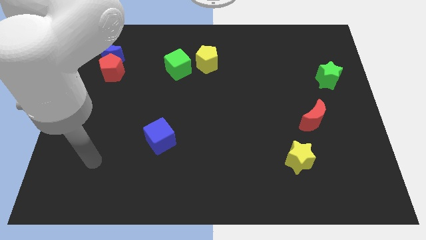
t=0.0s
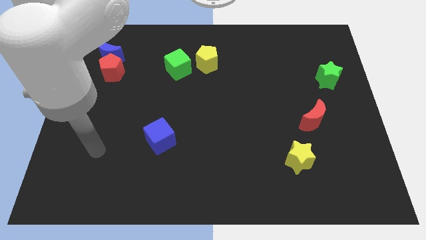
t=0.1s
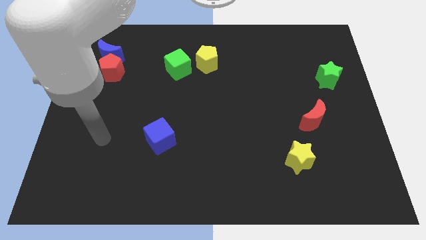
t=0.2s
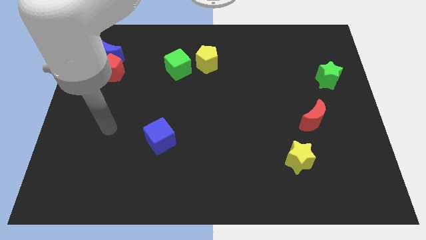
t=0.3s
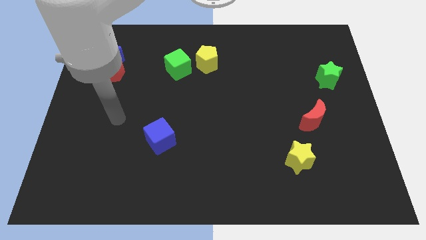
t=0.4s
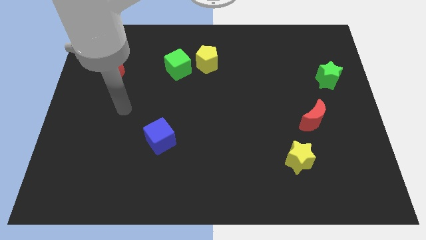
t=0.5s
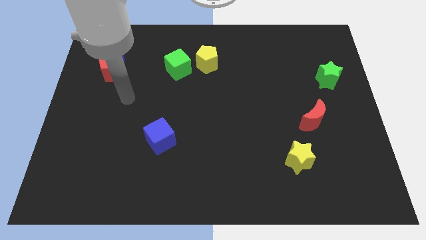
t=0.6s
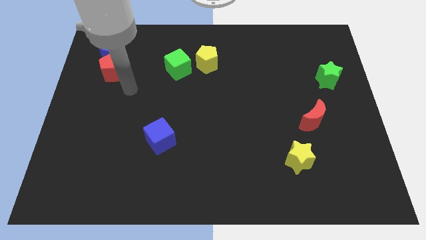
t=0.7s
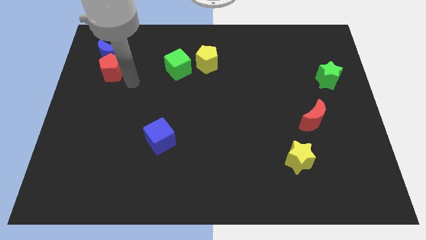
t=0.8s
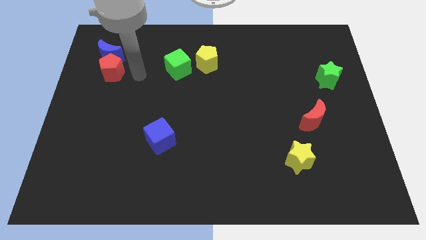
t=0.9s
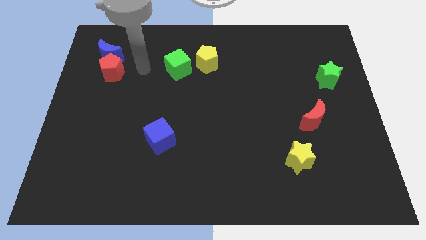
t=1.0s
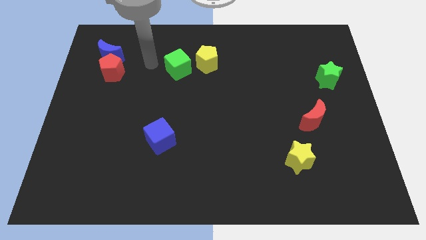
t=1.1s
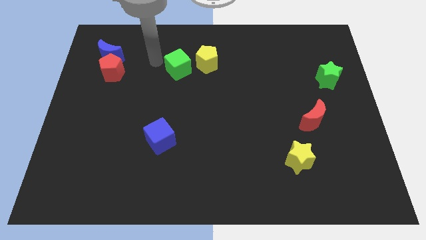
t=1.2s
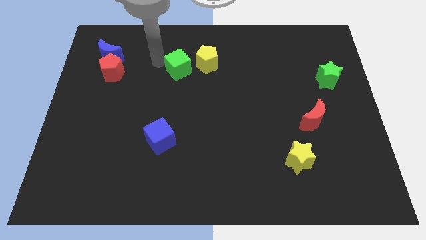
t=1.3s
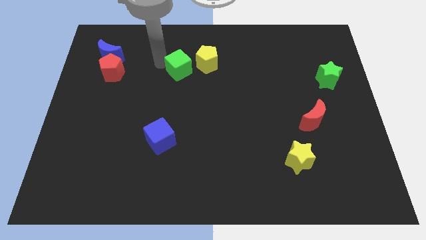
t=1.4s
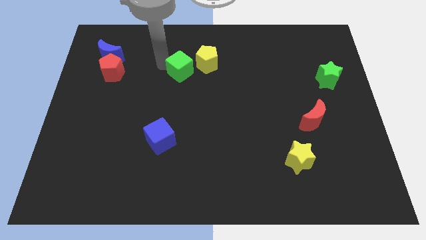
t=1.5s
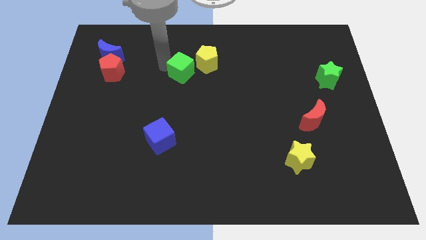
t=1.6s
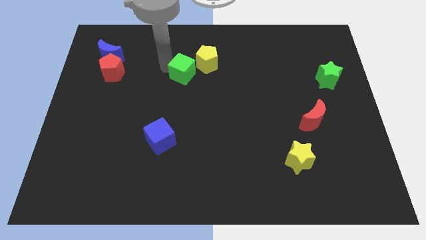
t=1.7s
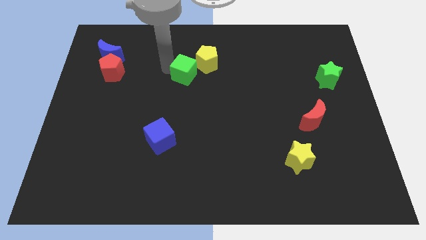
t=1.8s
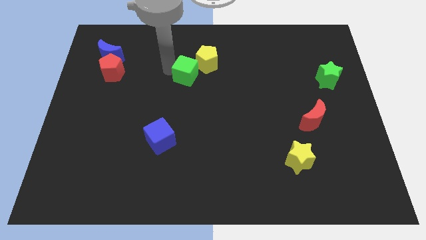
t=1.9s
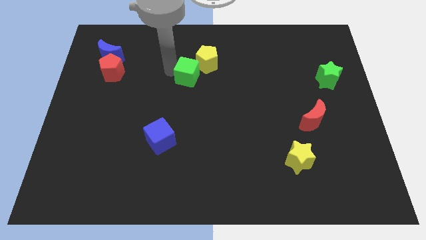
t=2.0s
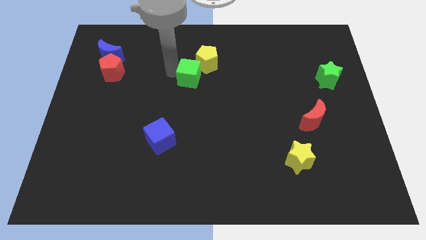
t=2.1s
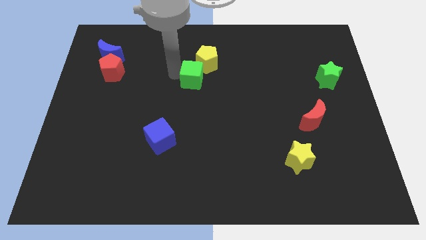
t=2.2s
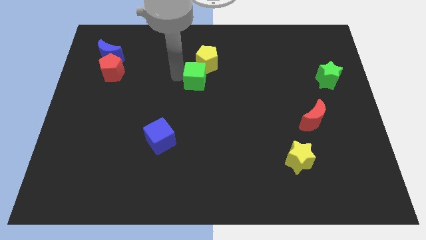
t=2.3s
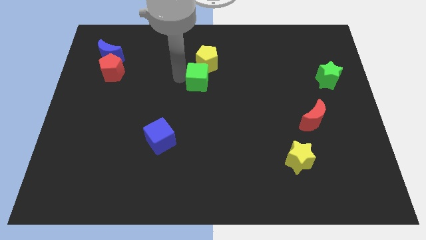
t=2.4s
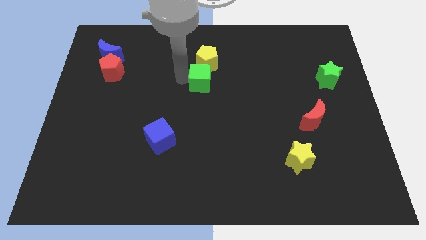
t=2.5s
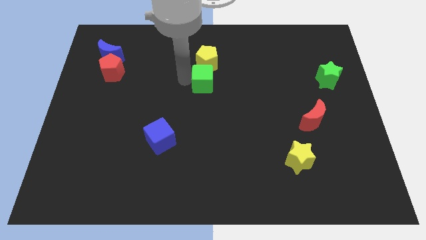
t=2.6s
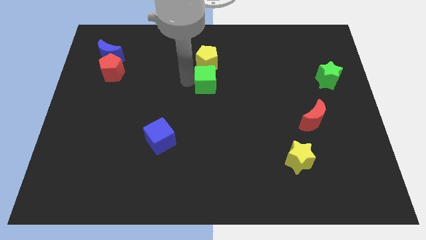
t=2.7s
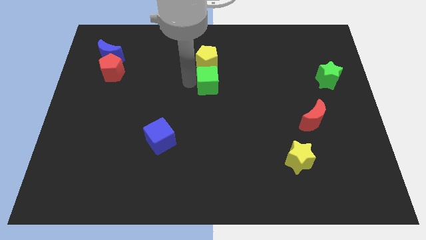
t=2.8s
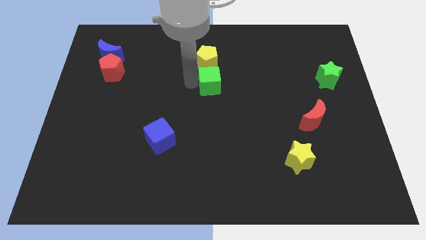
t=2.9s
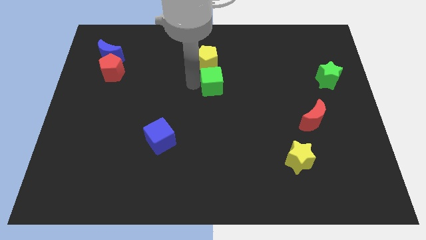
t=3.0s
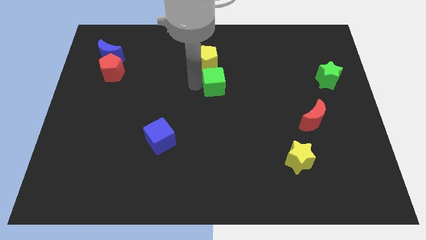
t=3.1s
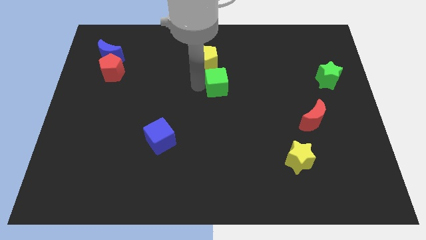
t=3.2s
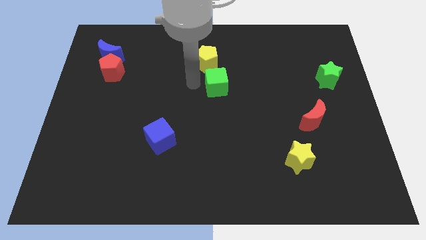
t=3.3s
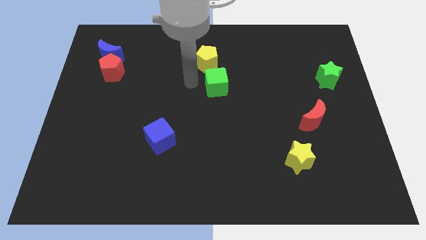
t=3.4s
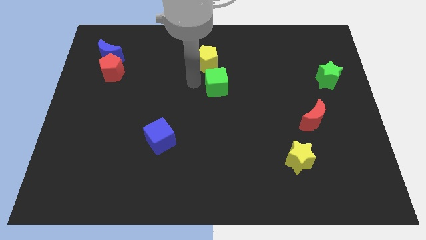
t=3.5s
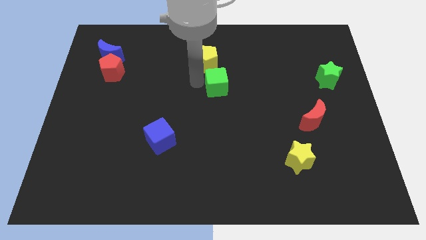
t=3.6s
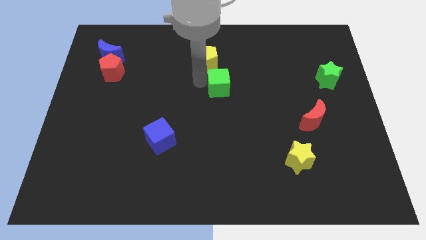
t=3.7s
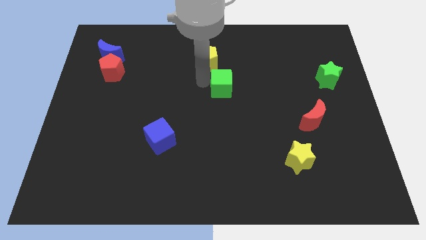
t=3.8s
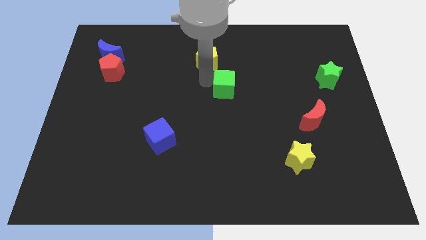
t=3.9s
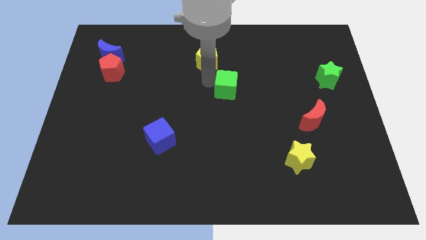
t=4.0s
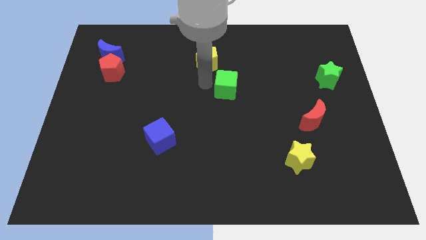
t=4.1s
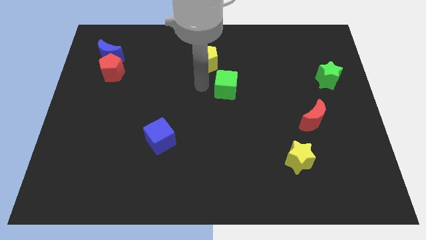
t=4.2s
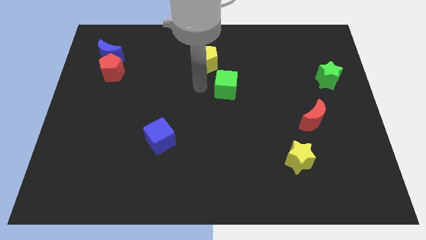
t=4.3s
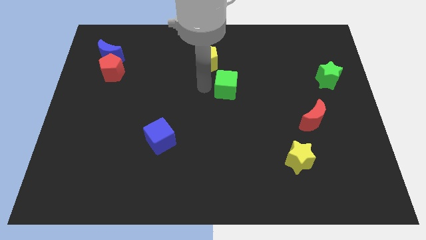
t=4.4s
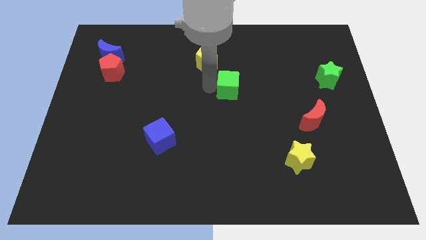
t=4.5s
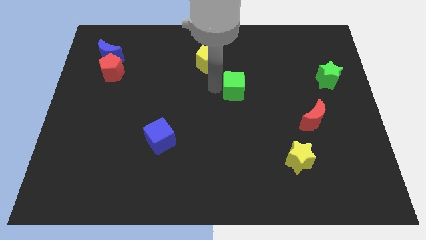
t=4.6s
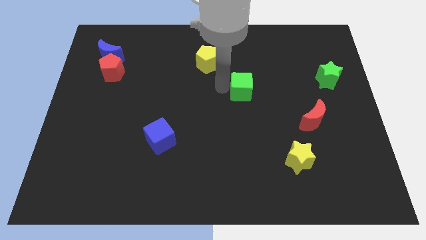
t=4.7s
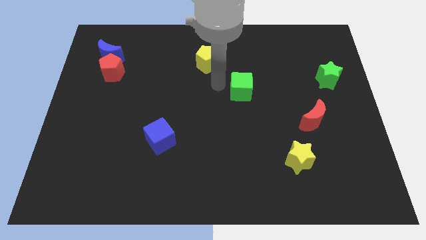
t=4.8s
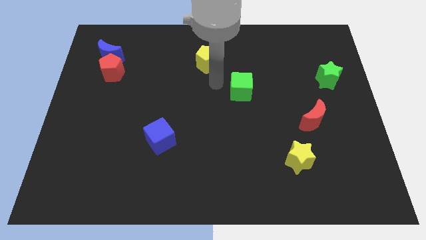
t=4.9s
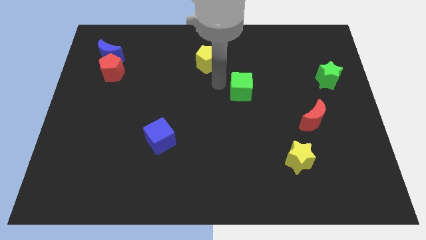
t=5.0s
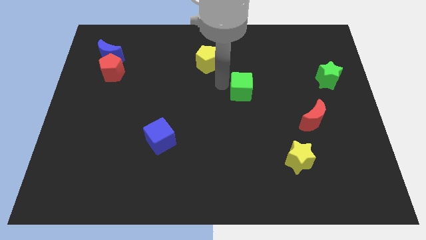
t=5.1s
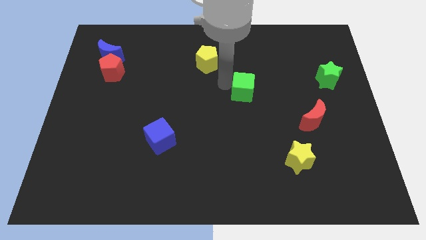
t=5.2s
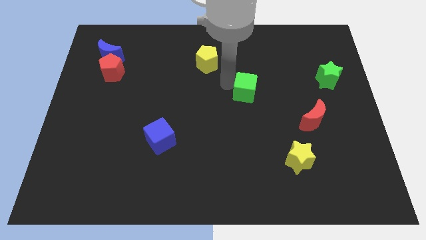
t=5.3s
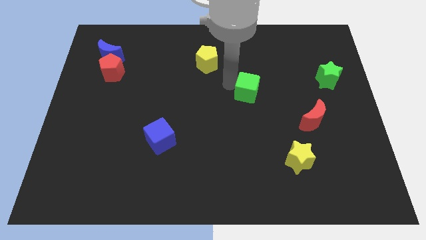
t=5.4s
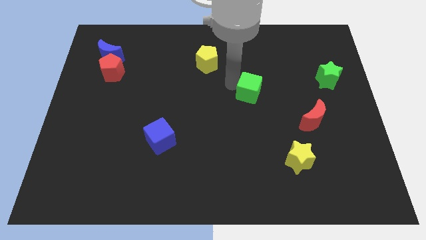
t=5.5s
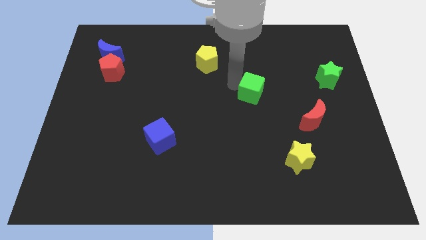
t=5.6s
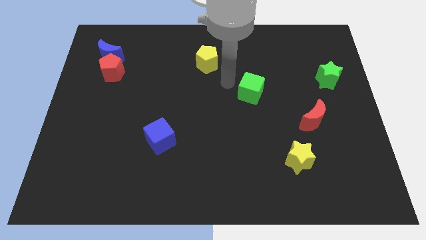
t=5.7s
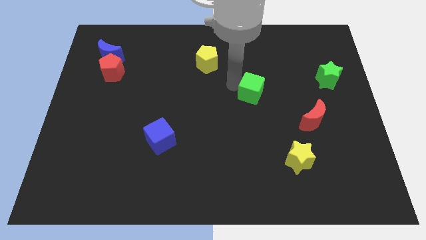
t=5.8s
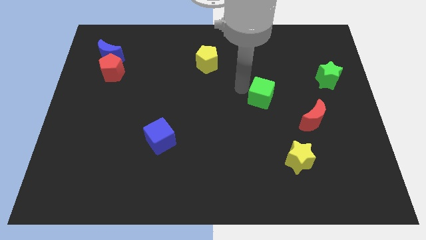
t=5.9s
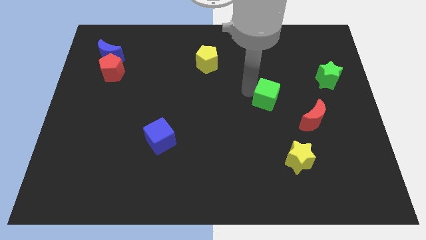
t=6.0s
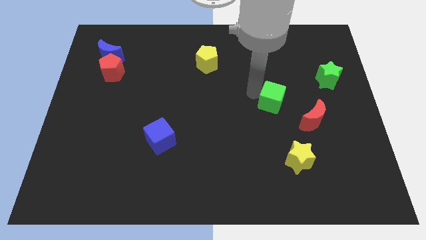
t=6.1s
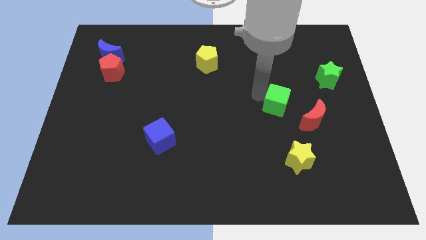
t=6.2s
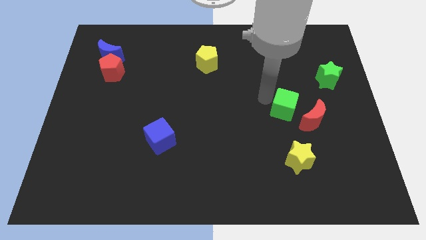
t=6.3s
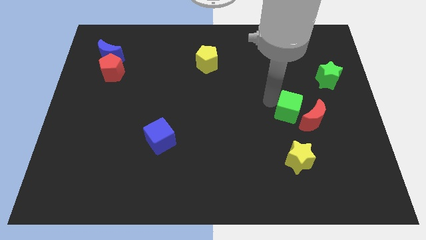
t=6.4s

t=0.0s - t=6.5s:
move the green cube to the red moon

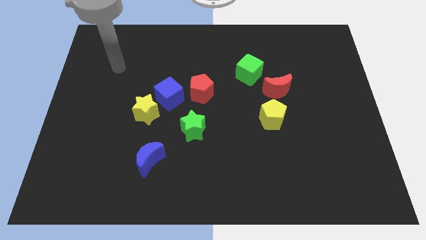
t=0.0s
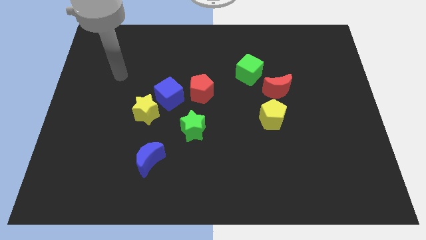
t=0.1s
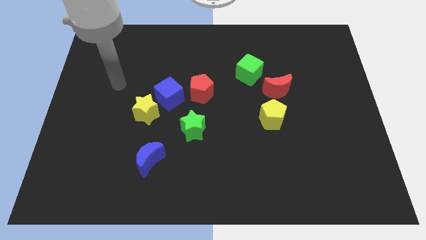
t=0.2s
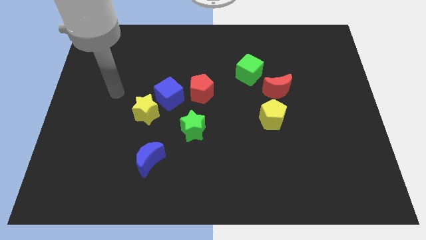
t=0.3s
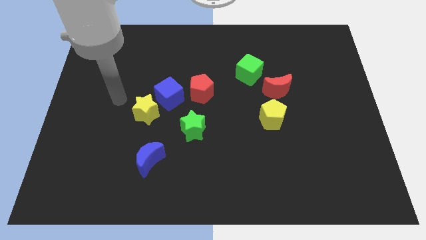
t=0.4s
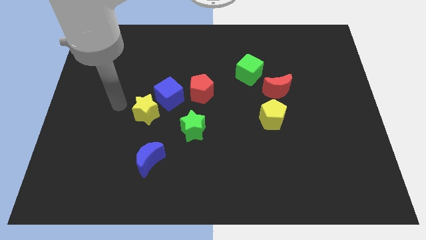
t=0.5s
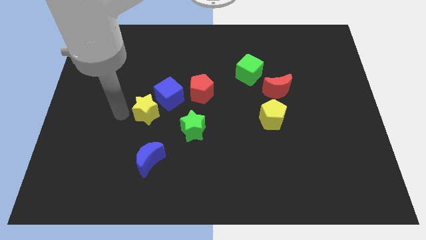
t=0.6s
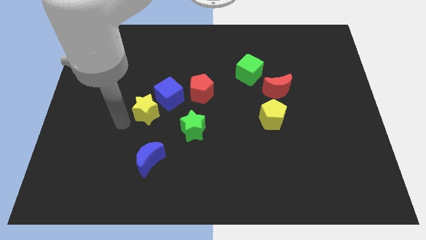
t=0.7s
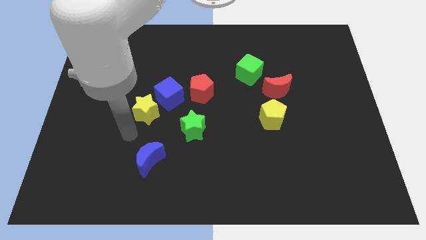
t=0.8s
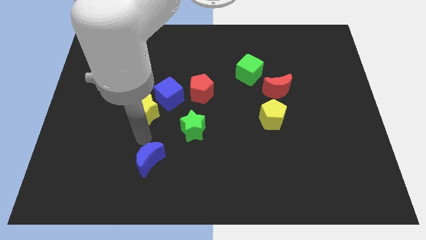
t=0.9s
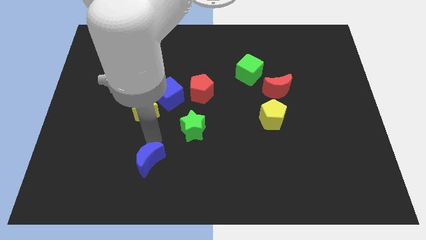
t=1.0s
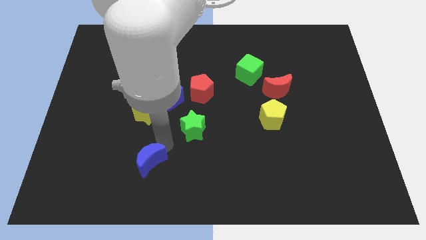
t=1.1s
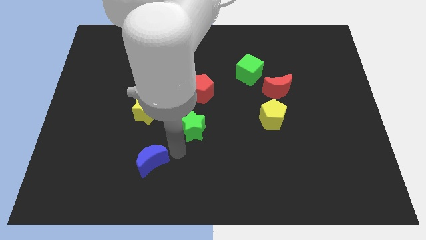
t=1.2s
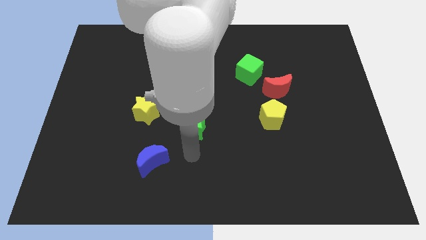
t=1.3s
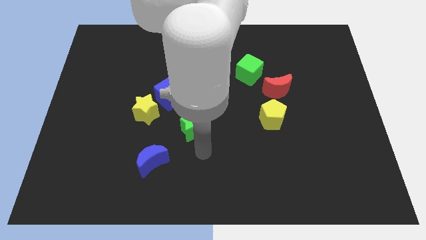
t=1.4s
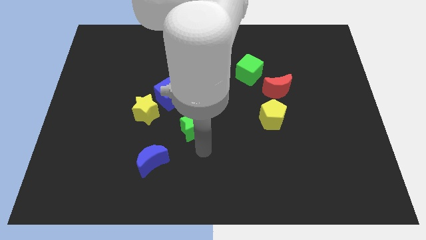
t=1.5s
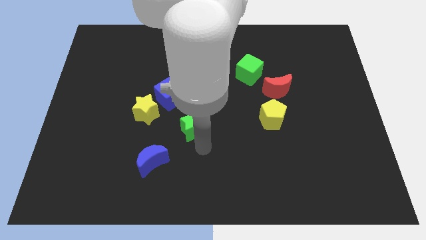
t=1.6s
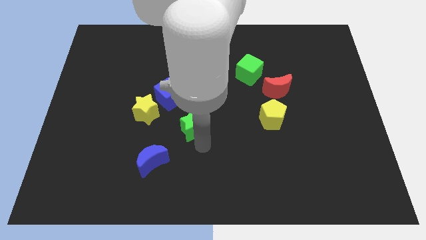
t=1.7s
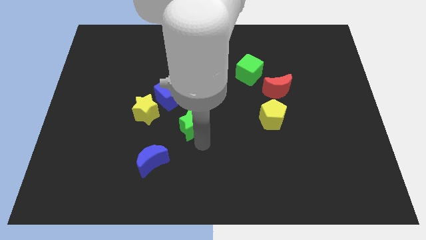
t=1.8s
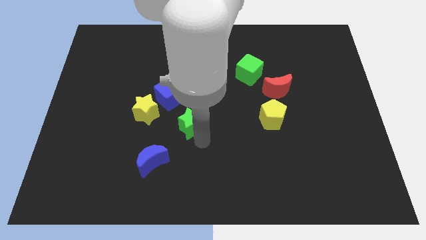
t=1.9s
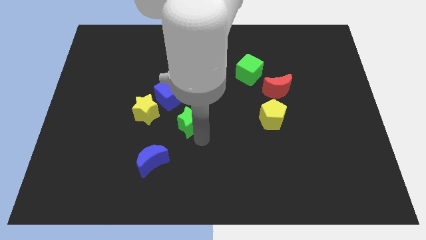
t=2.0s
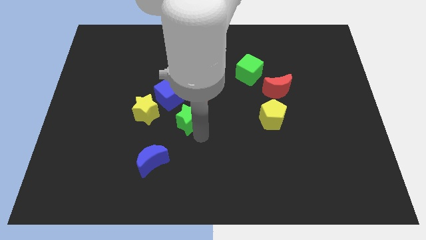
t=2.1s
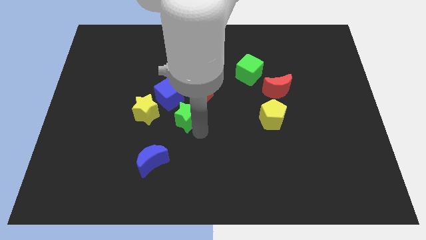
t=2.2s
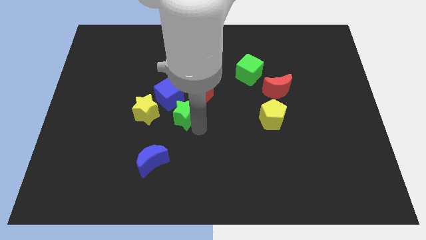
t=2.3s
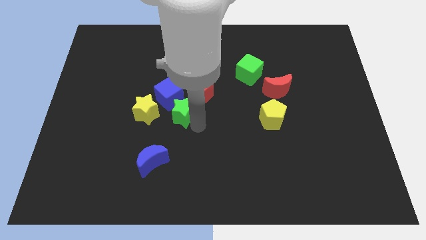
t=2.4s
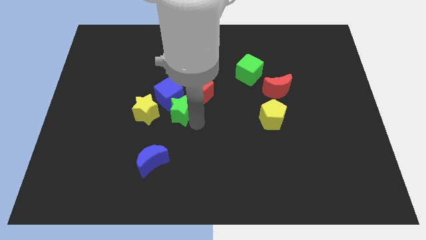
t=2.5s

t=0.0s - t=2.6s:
put the green star towards the blue cube
